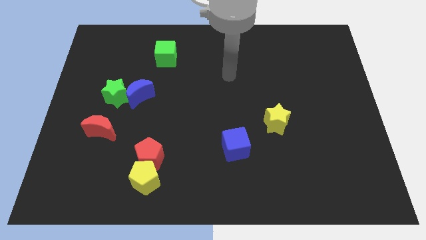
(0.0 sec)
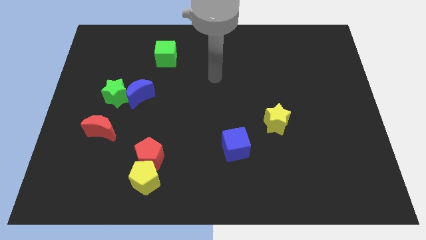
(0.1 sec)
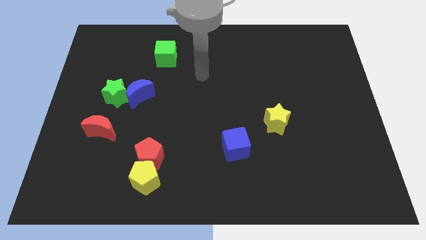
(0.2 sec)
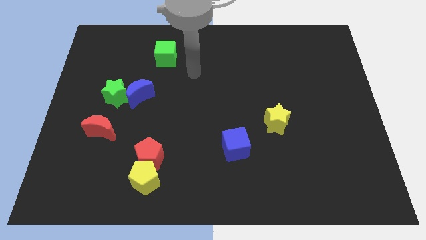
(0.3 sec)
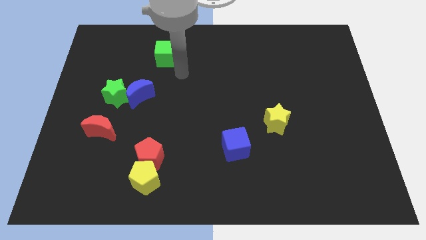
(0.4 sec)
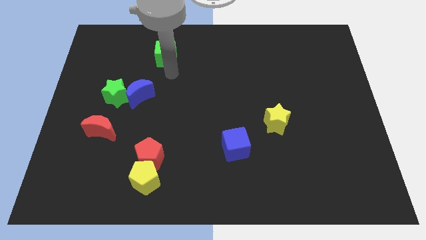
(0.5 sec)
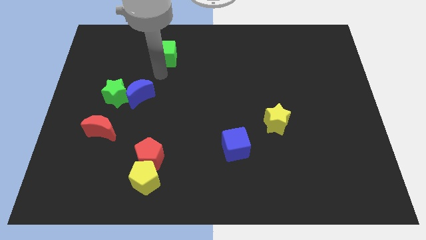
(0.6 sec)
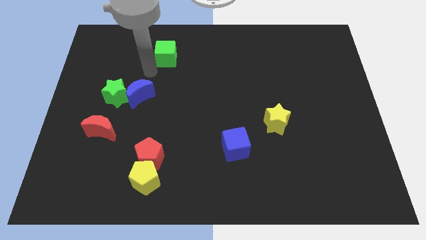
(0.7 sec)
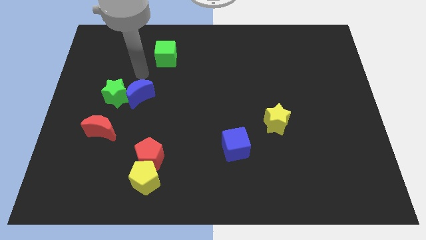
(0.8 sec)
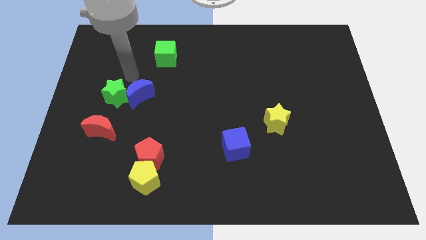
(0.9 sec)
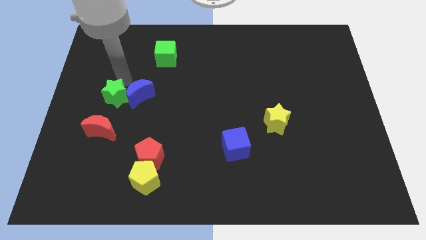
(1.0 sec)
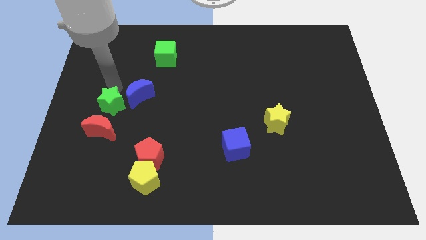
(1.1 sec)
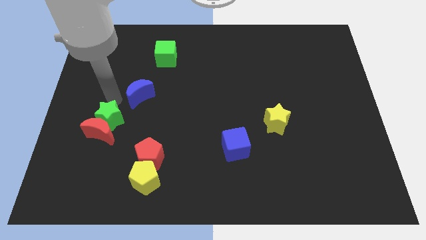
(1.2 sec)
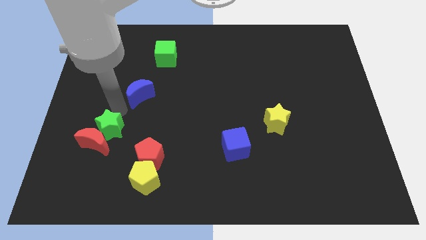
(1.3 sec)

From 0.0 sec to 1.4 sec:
pull the blue moon apart from the green star

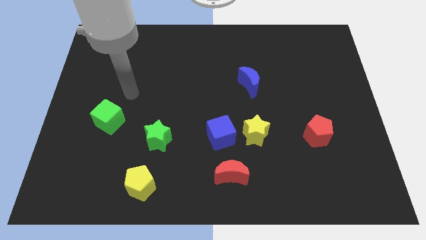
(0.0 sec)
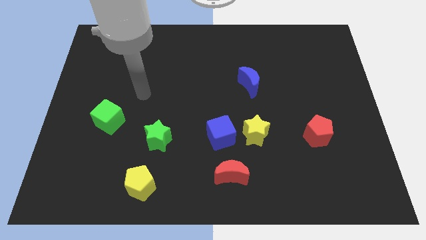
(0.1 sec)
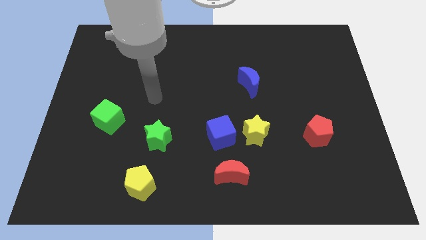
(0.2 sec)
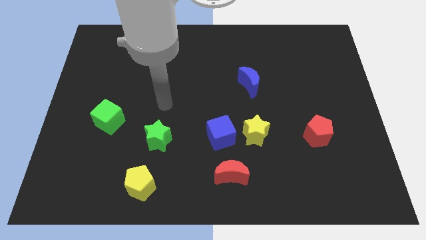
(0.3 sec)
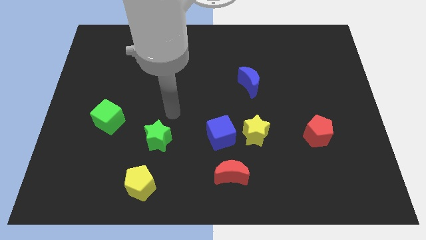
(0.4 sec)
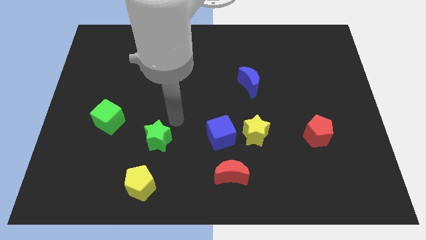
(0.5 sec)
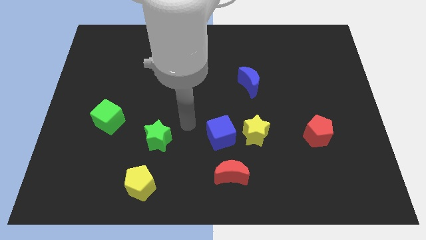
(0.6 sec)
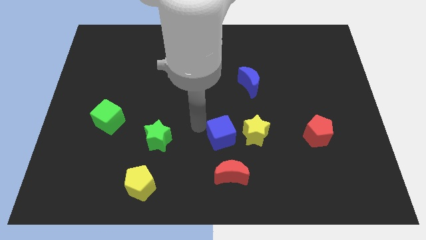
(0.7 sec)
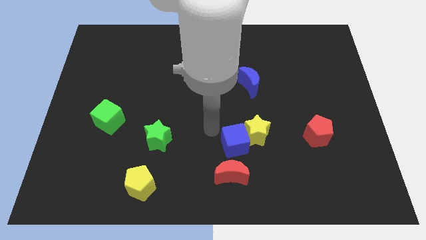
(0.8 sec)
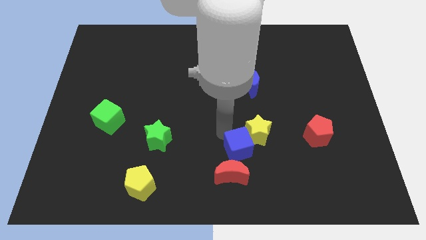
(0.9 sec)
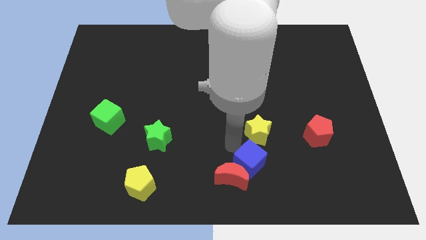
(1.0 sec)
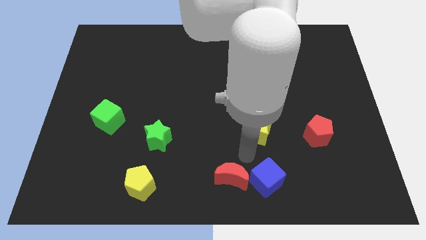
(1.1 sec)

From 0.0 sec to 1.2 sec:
move the yellow star away from the blue cube

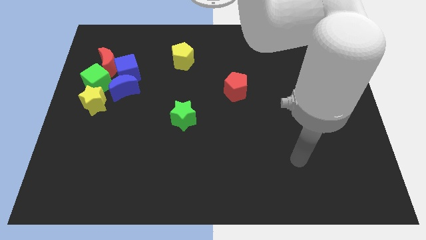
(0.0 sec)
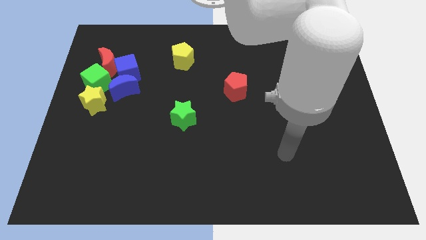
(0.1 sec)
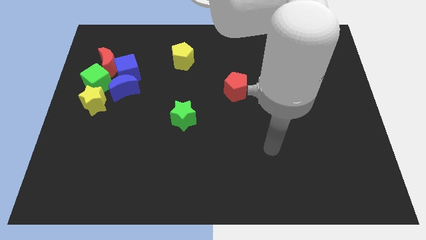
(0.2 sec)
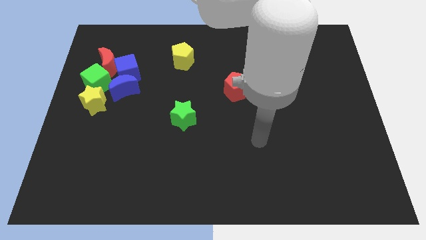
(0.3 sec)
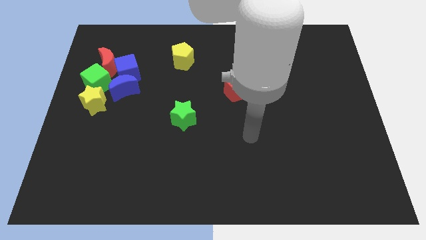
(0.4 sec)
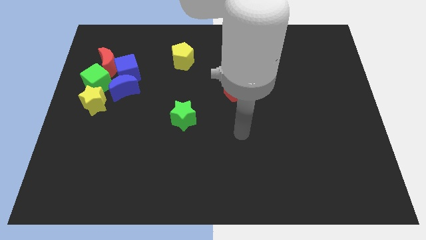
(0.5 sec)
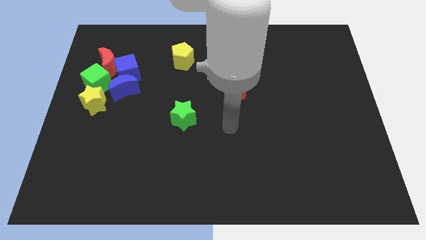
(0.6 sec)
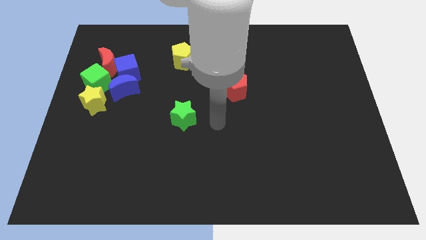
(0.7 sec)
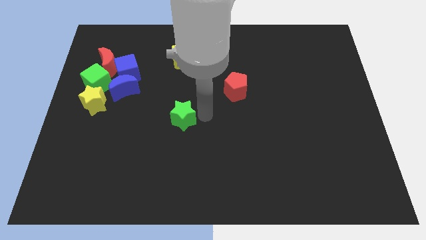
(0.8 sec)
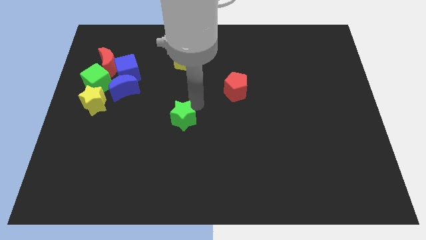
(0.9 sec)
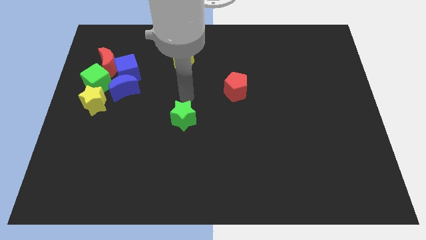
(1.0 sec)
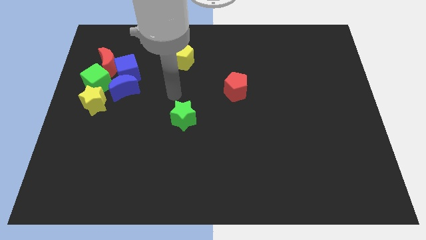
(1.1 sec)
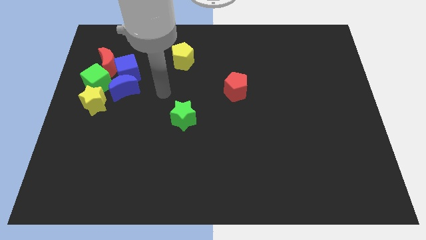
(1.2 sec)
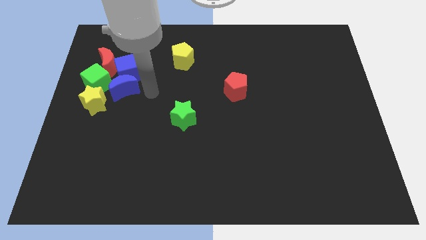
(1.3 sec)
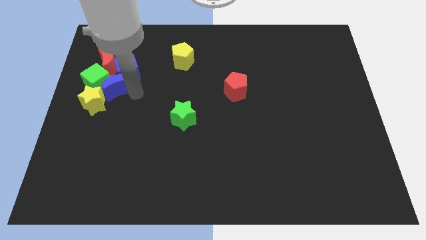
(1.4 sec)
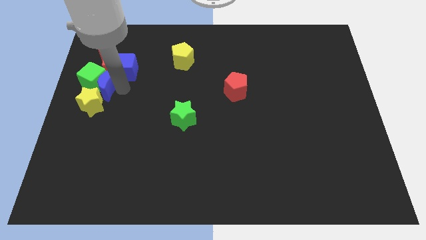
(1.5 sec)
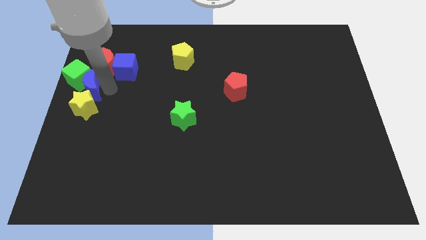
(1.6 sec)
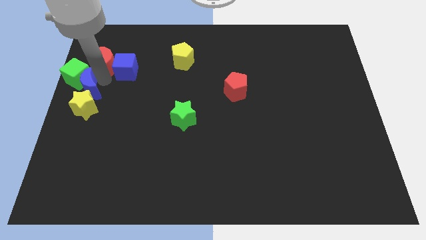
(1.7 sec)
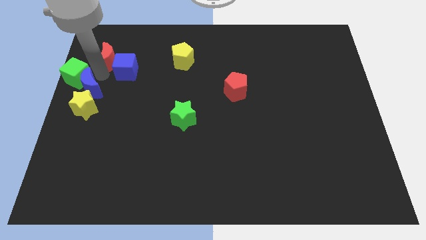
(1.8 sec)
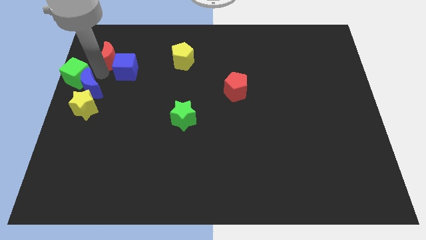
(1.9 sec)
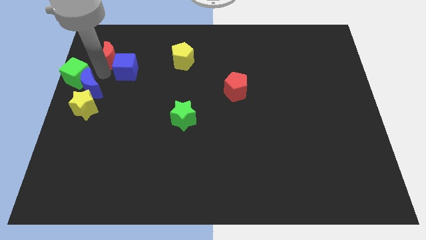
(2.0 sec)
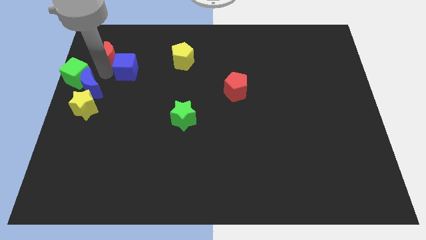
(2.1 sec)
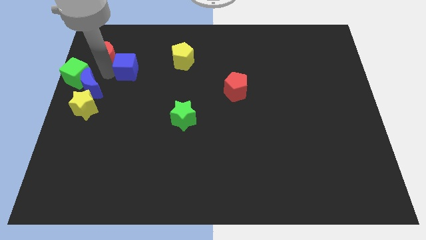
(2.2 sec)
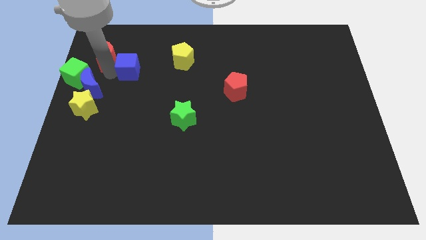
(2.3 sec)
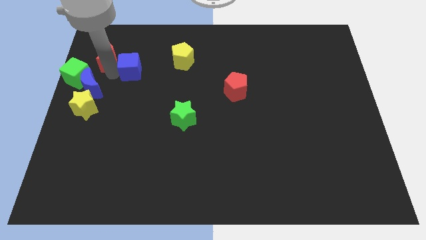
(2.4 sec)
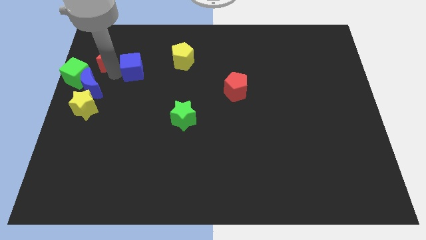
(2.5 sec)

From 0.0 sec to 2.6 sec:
separate the blue cube from the blue moon, red moon, and green cube

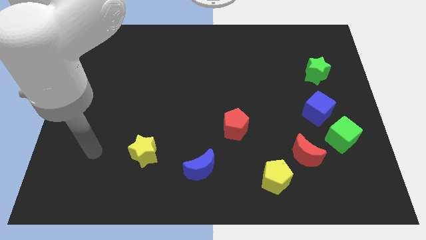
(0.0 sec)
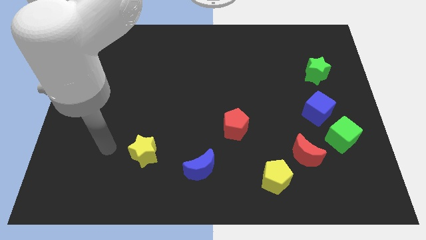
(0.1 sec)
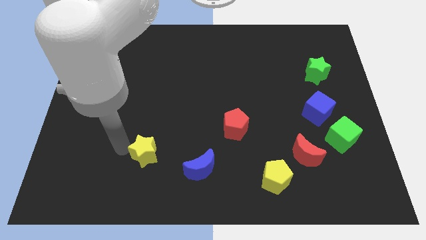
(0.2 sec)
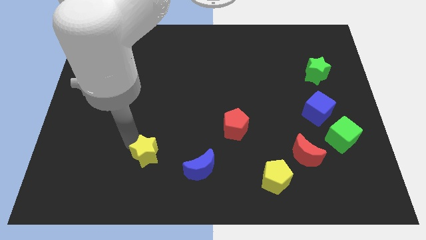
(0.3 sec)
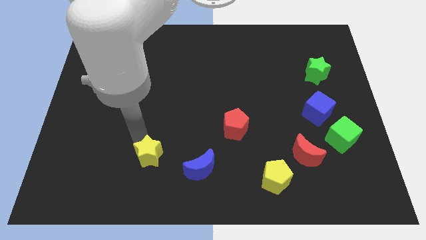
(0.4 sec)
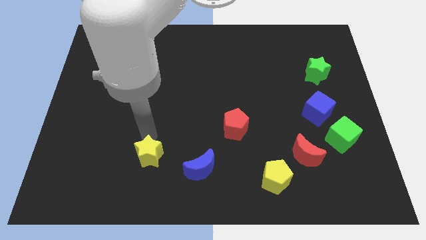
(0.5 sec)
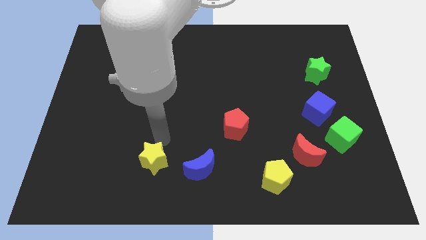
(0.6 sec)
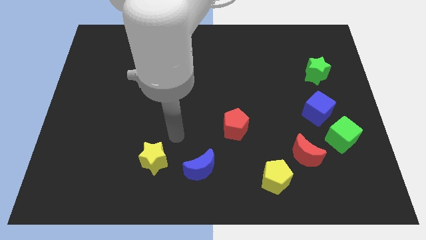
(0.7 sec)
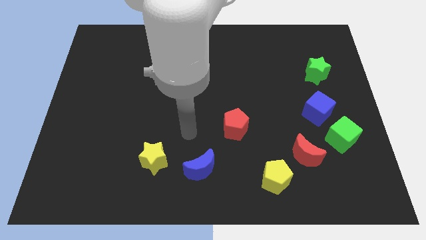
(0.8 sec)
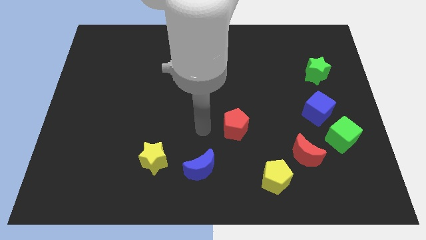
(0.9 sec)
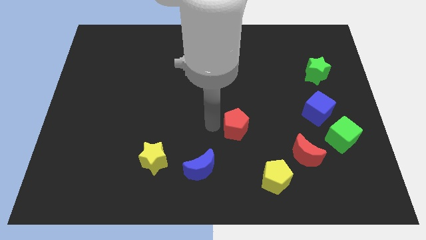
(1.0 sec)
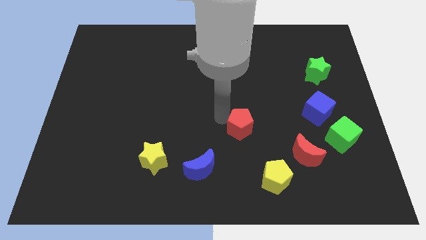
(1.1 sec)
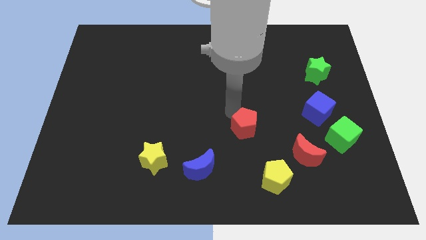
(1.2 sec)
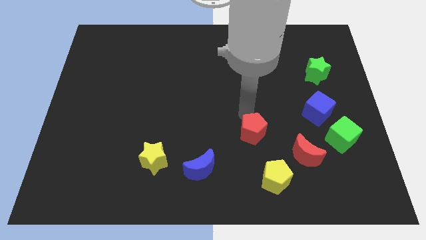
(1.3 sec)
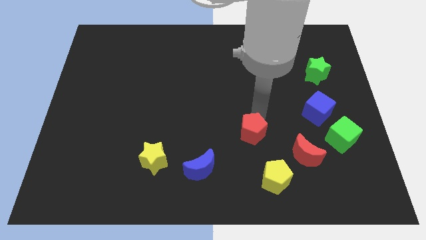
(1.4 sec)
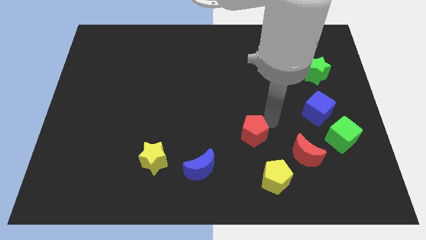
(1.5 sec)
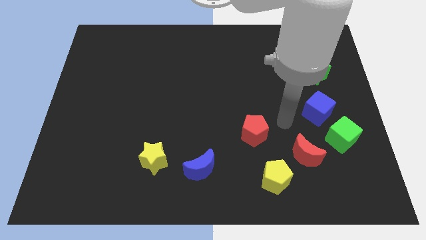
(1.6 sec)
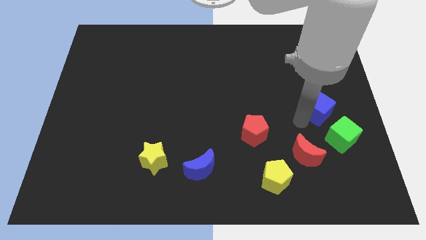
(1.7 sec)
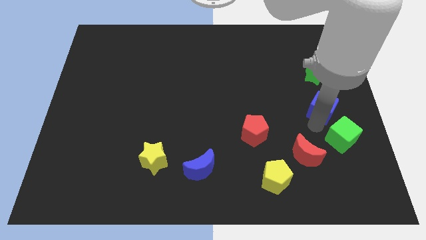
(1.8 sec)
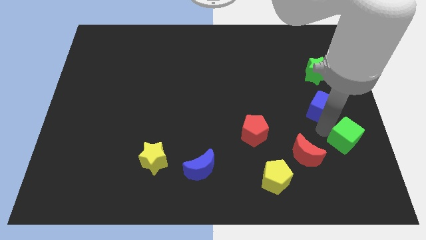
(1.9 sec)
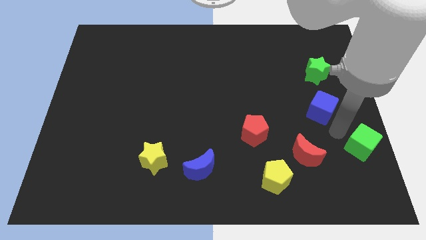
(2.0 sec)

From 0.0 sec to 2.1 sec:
separate the blue cube from the green cube

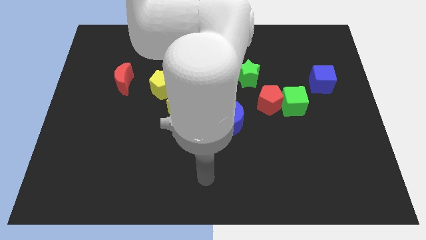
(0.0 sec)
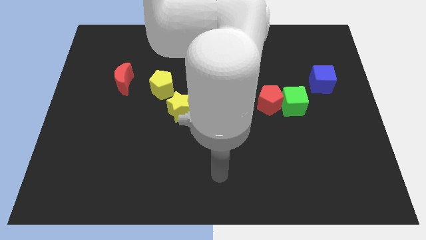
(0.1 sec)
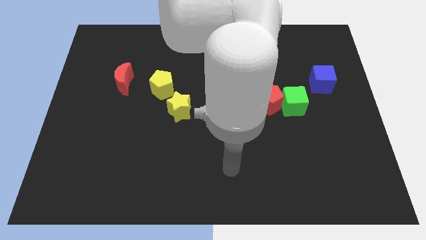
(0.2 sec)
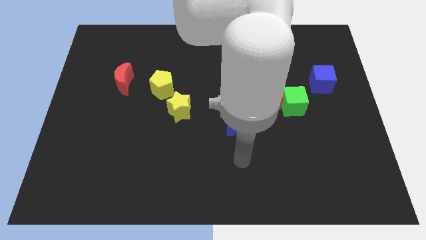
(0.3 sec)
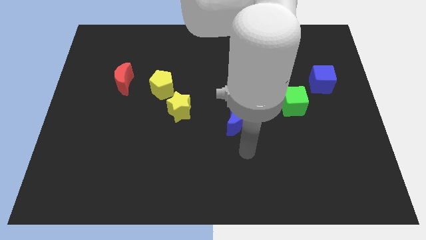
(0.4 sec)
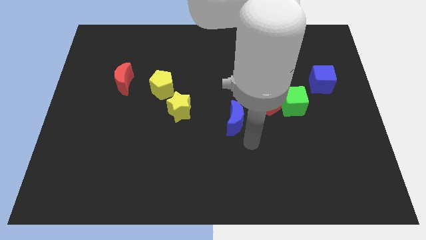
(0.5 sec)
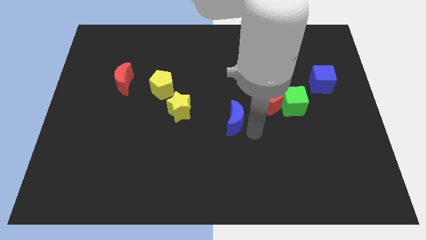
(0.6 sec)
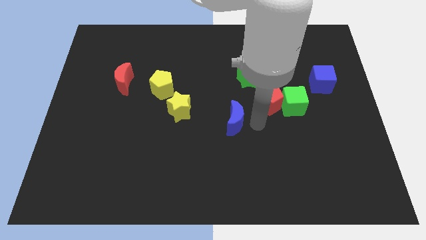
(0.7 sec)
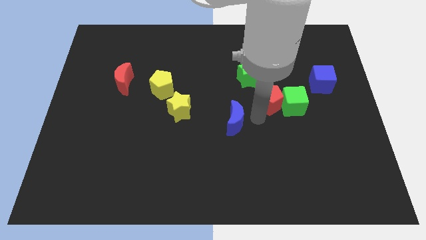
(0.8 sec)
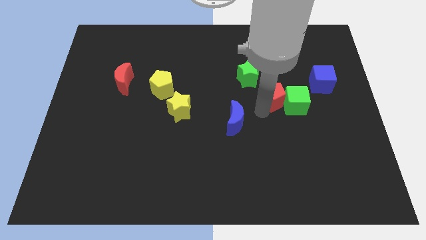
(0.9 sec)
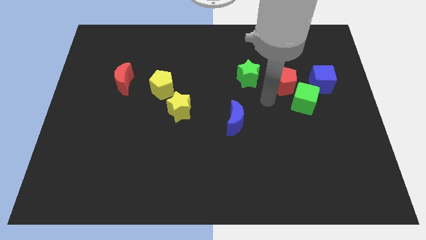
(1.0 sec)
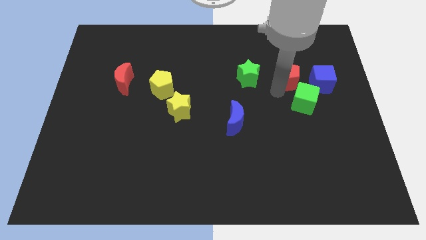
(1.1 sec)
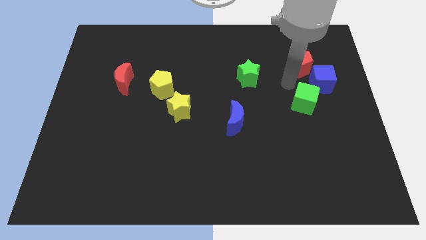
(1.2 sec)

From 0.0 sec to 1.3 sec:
separate the green cube from the red pentagon

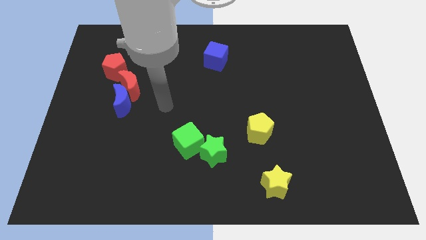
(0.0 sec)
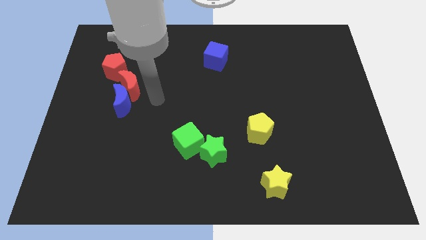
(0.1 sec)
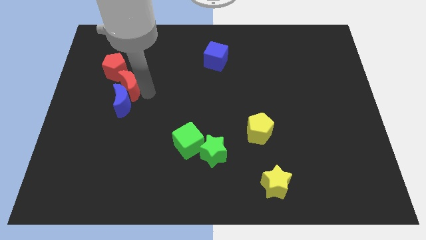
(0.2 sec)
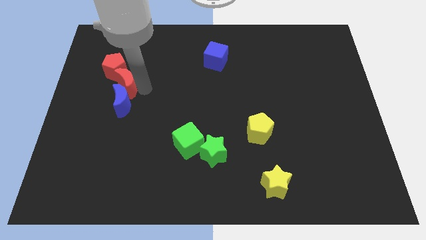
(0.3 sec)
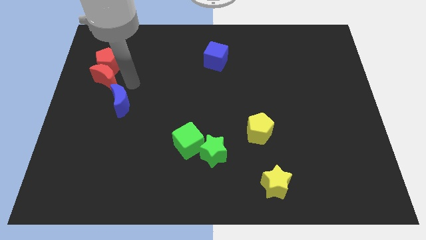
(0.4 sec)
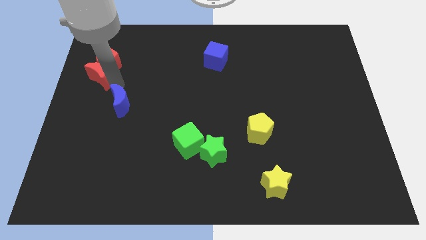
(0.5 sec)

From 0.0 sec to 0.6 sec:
separate the blue moon from the red moon
